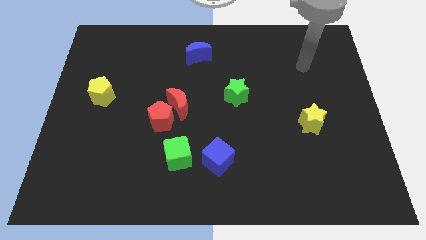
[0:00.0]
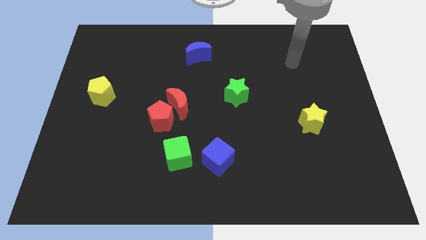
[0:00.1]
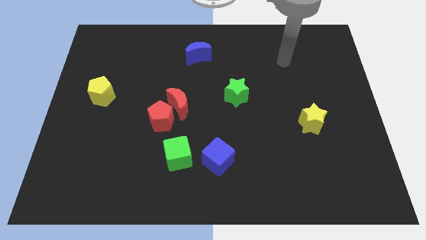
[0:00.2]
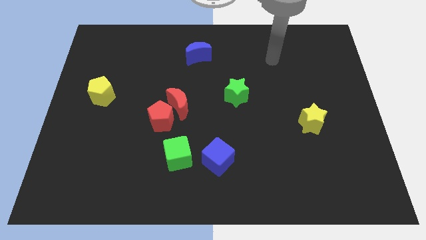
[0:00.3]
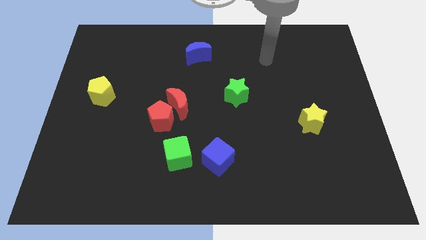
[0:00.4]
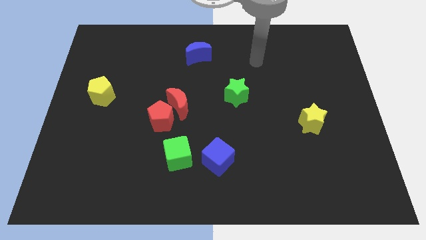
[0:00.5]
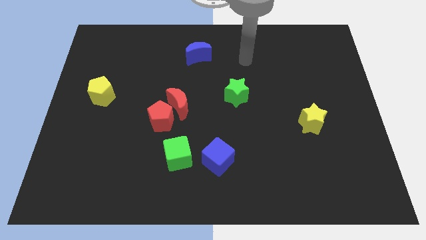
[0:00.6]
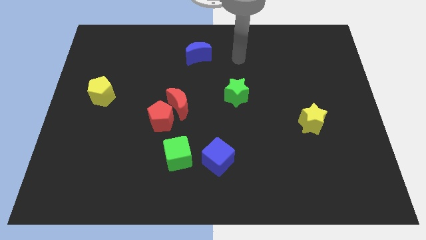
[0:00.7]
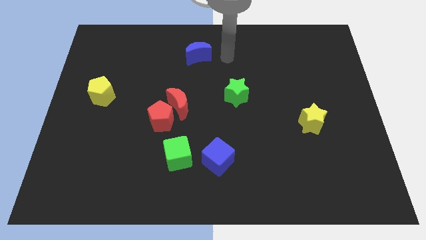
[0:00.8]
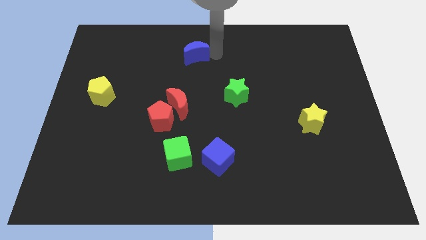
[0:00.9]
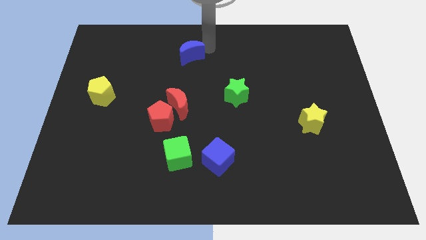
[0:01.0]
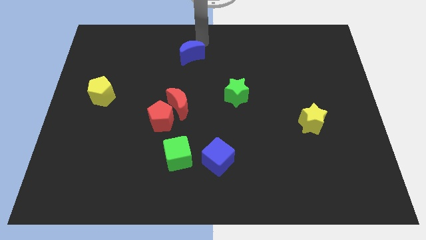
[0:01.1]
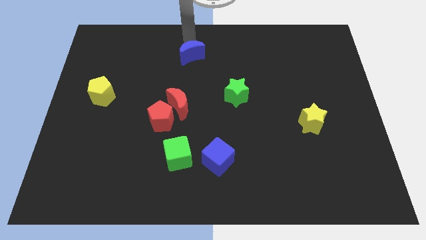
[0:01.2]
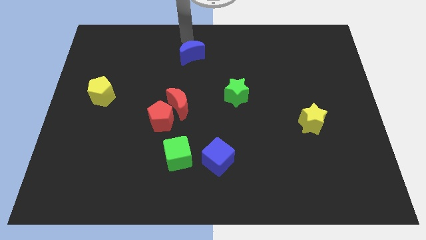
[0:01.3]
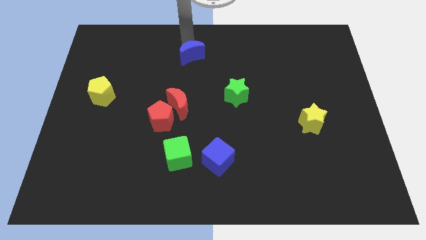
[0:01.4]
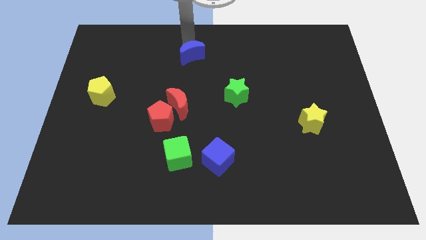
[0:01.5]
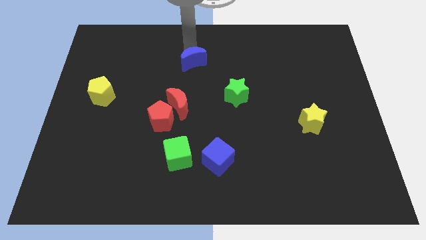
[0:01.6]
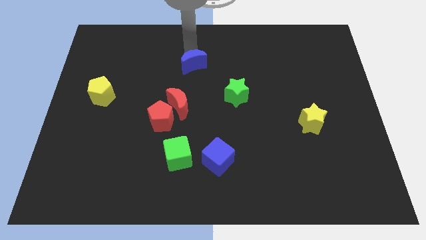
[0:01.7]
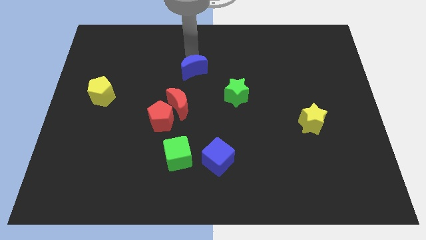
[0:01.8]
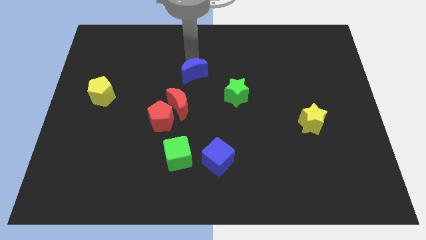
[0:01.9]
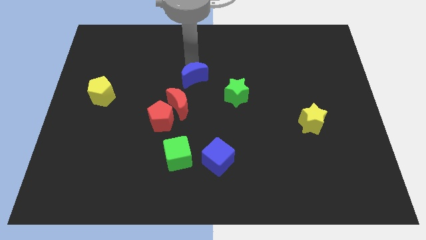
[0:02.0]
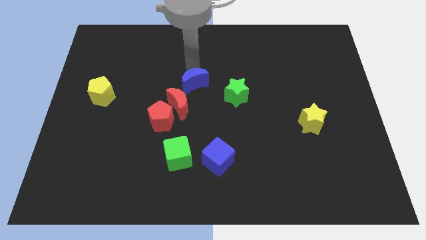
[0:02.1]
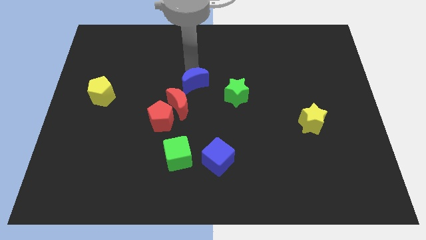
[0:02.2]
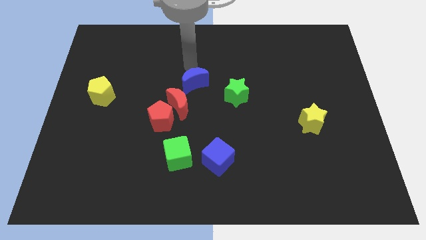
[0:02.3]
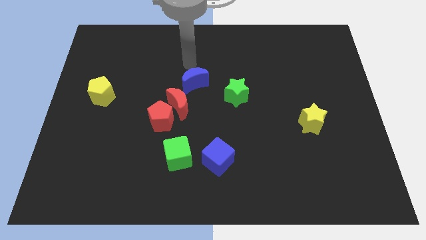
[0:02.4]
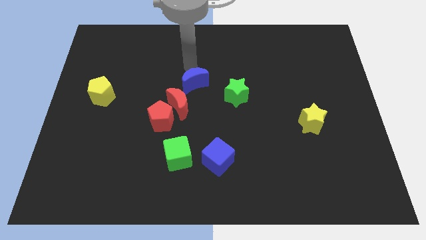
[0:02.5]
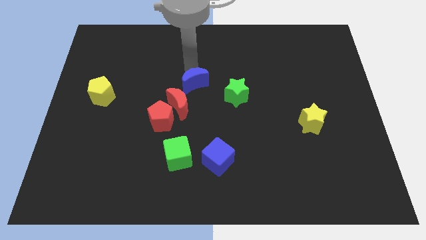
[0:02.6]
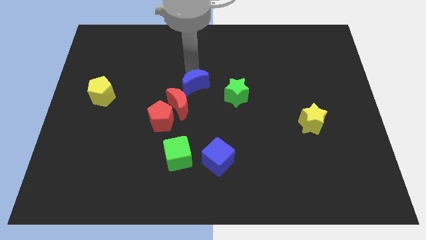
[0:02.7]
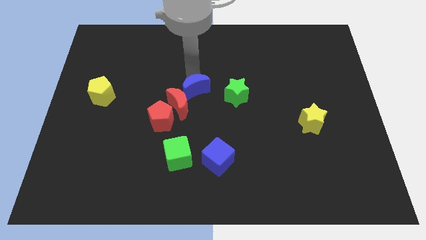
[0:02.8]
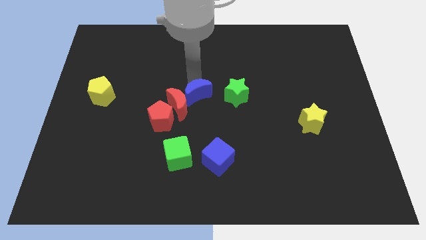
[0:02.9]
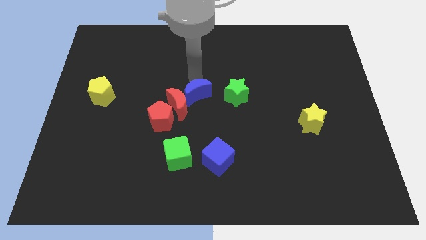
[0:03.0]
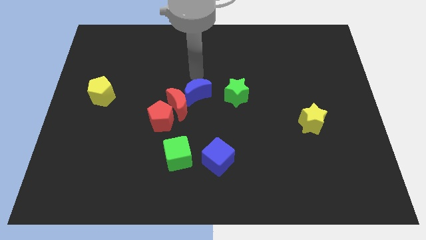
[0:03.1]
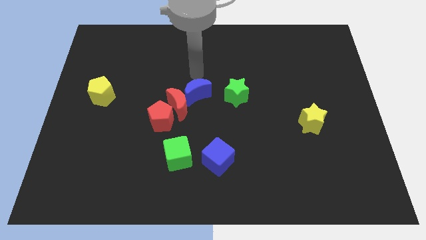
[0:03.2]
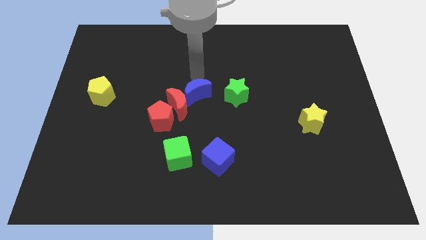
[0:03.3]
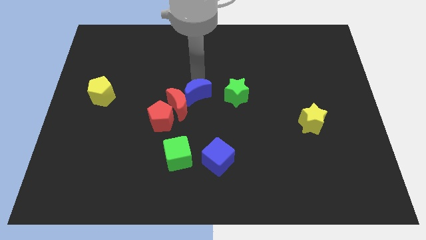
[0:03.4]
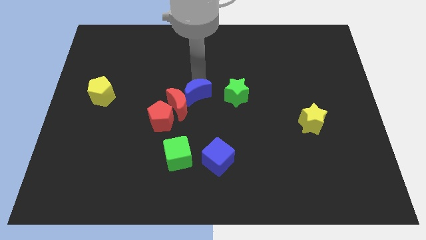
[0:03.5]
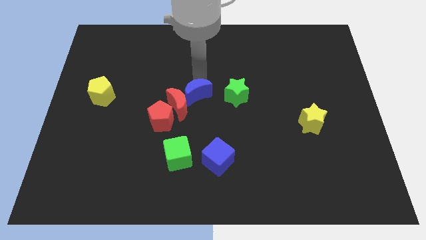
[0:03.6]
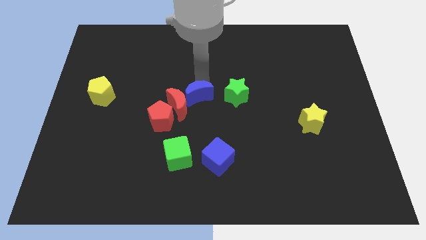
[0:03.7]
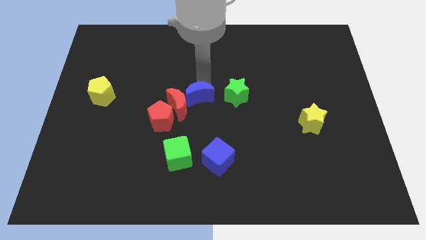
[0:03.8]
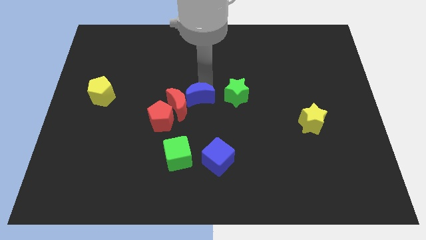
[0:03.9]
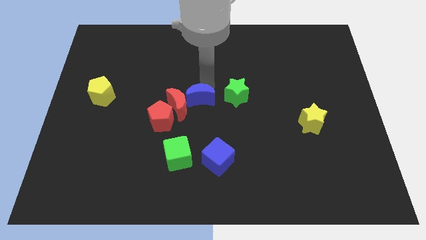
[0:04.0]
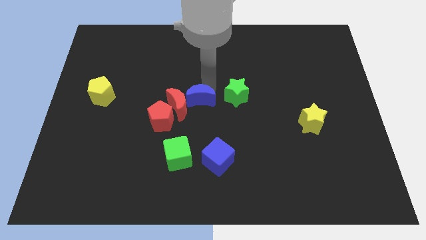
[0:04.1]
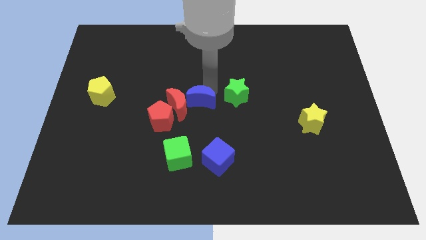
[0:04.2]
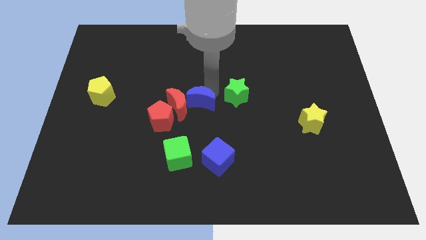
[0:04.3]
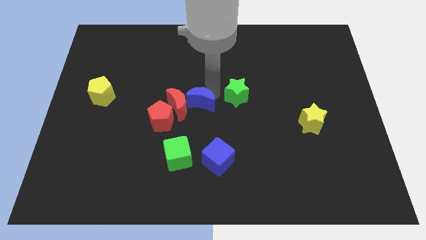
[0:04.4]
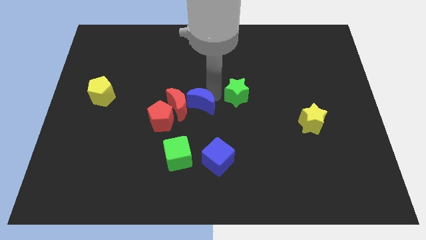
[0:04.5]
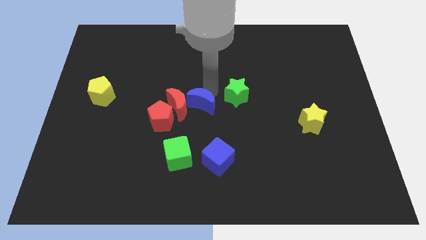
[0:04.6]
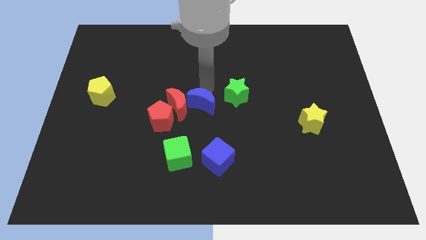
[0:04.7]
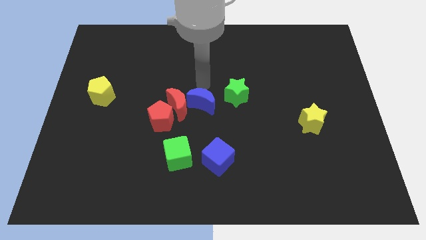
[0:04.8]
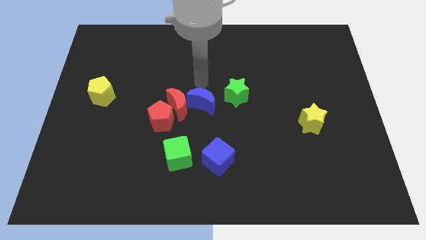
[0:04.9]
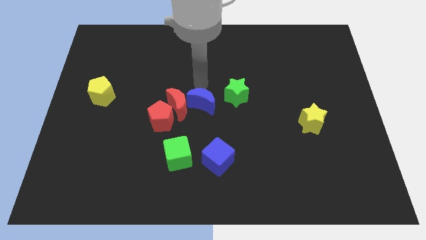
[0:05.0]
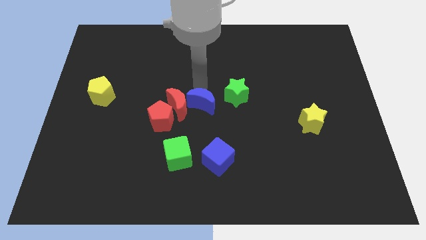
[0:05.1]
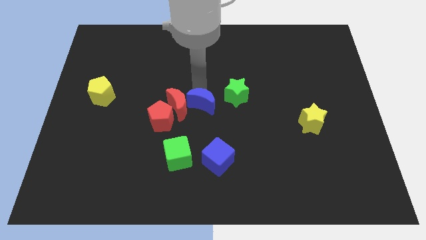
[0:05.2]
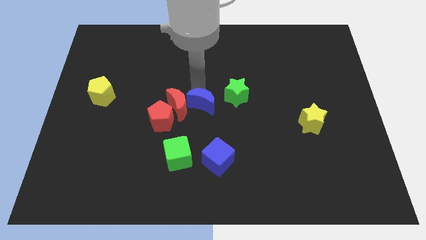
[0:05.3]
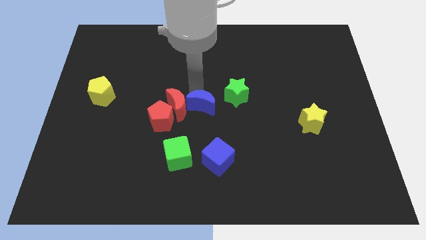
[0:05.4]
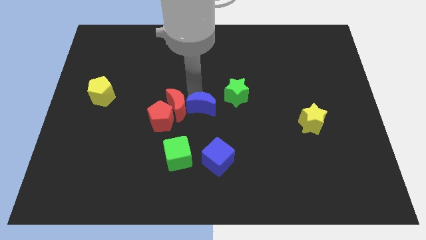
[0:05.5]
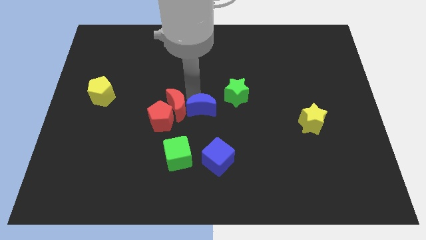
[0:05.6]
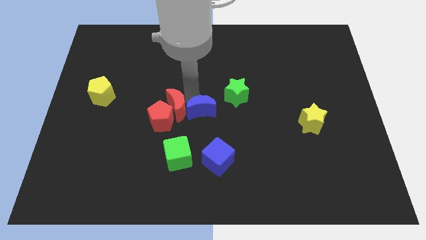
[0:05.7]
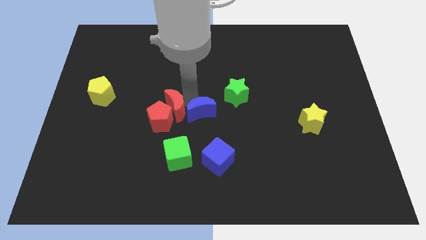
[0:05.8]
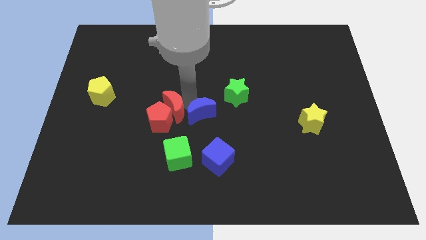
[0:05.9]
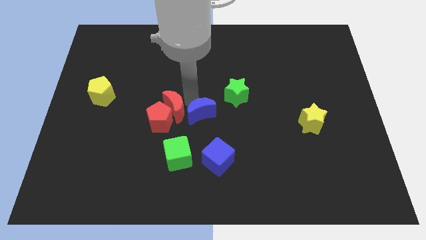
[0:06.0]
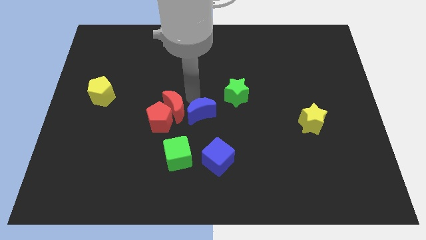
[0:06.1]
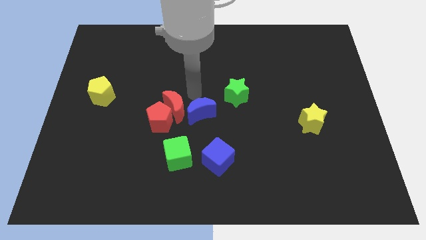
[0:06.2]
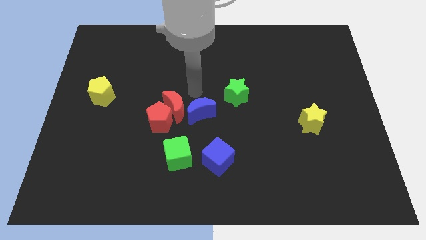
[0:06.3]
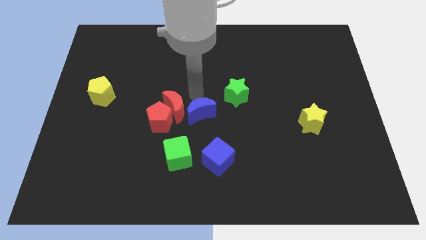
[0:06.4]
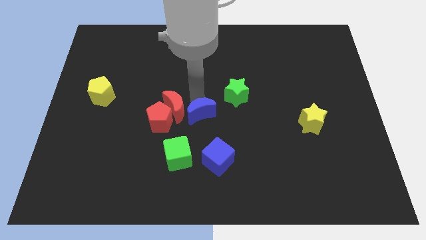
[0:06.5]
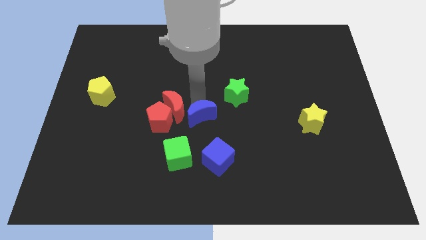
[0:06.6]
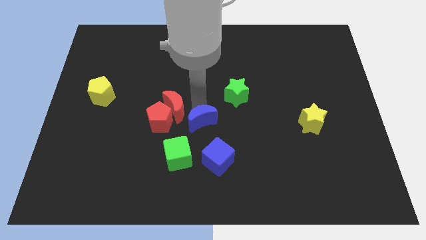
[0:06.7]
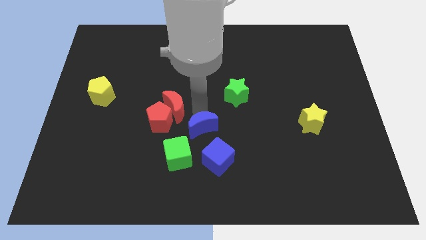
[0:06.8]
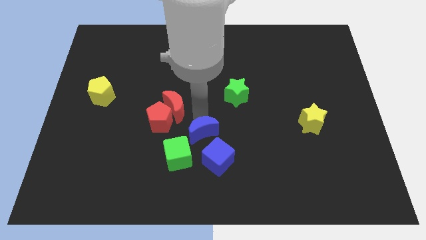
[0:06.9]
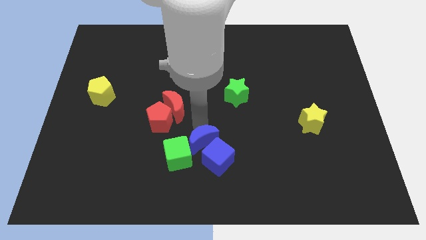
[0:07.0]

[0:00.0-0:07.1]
slide the blue moon next to the blue cube
